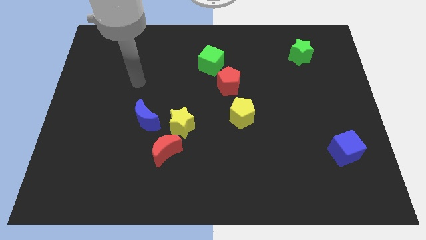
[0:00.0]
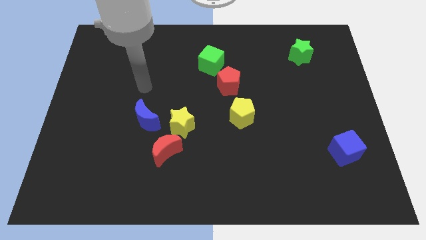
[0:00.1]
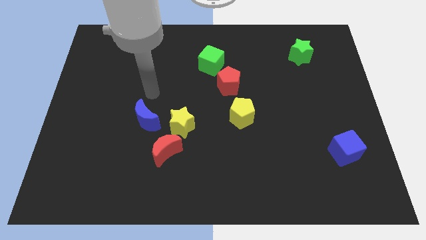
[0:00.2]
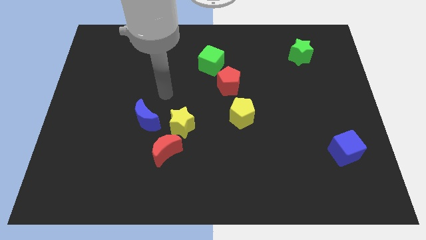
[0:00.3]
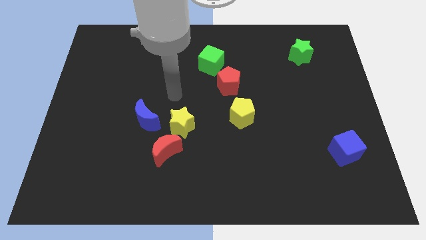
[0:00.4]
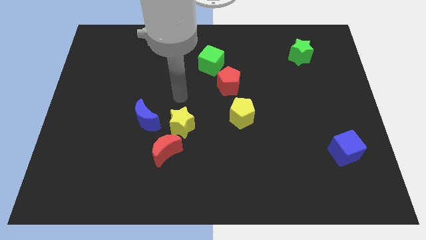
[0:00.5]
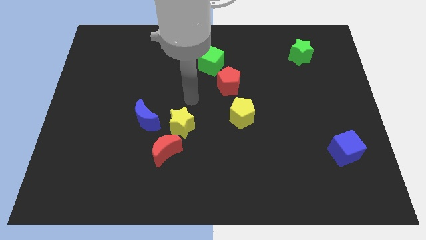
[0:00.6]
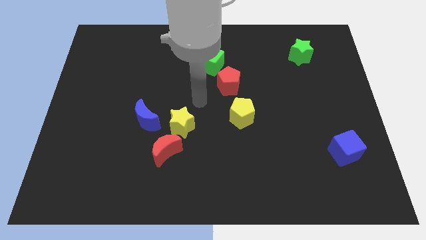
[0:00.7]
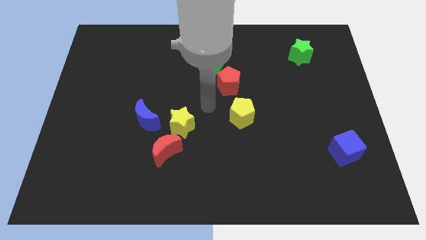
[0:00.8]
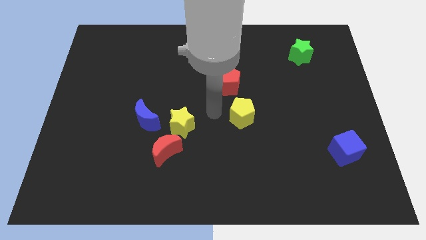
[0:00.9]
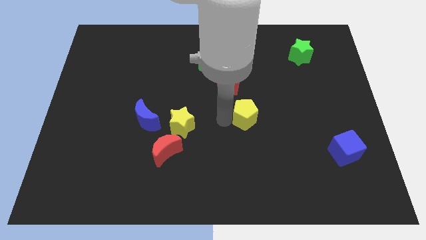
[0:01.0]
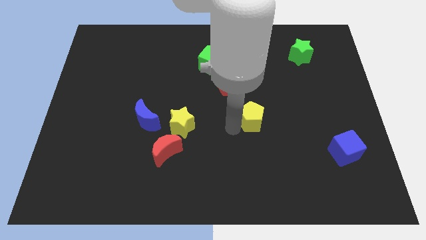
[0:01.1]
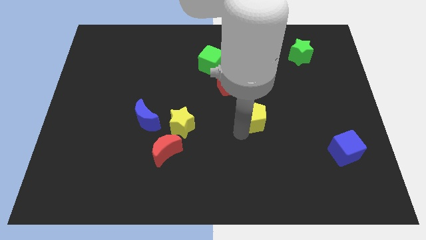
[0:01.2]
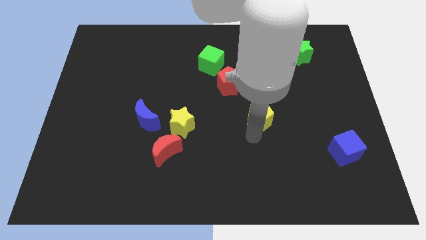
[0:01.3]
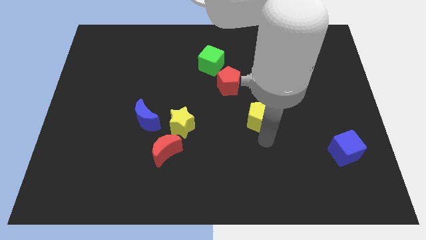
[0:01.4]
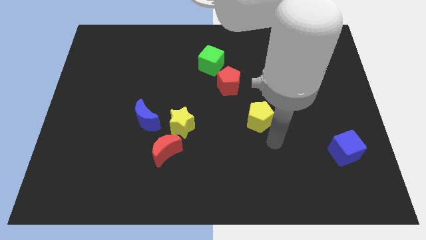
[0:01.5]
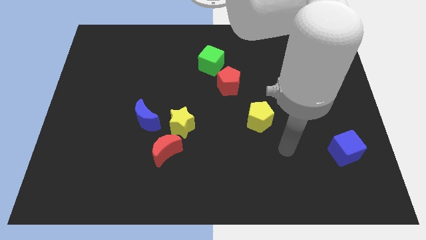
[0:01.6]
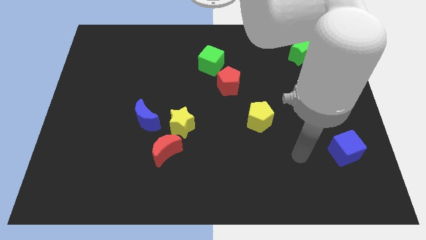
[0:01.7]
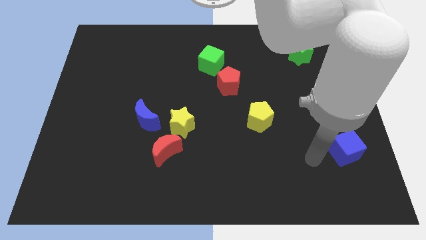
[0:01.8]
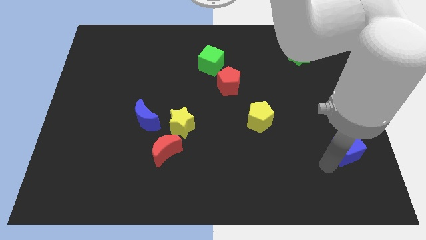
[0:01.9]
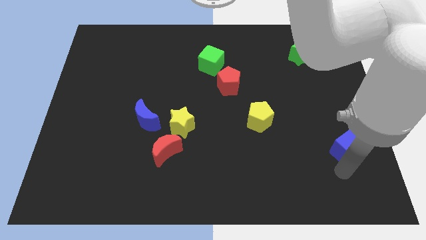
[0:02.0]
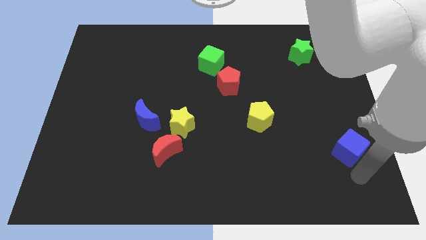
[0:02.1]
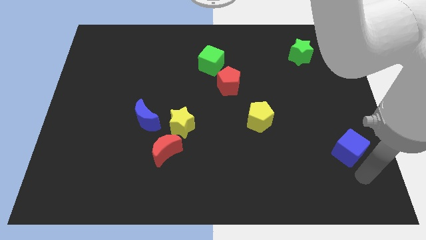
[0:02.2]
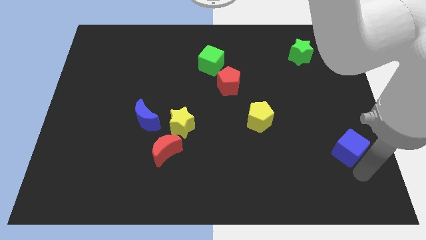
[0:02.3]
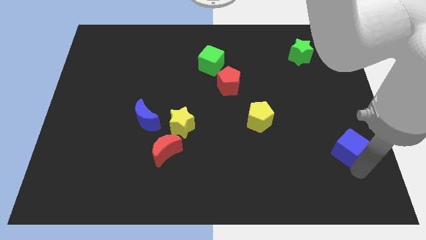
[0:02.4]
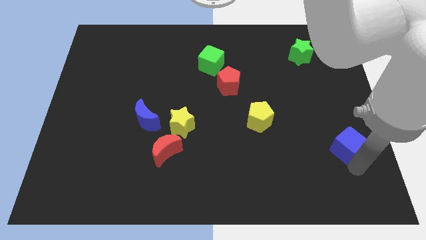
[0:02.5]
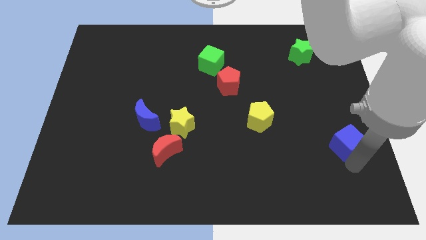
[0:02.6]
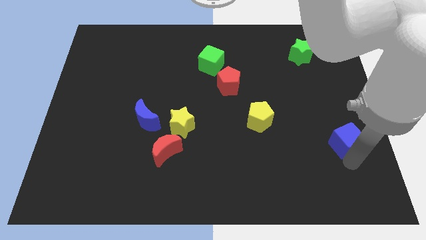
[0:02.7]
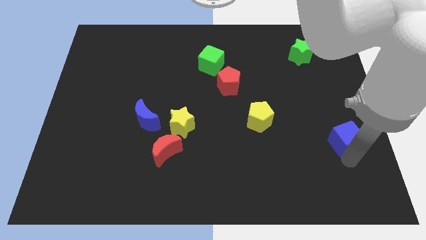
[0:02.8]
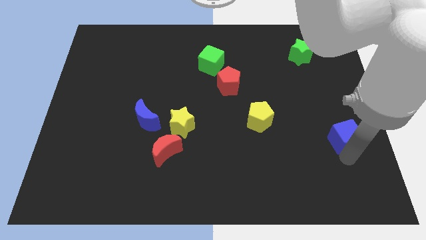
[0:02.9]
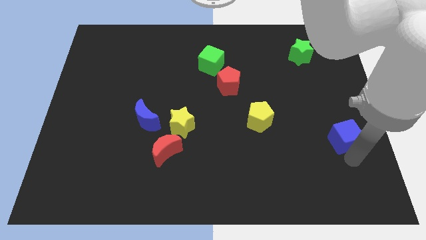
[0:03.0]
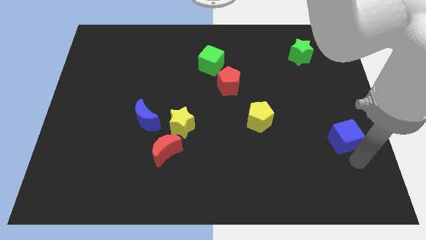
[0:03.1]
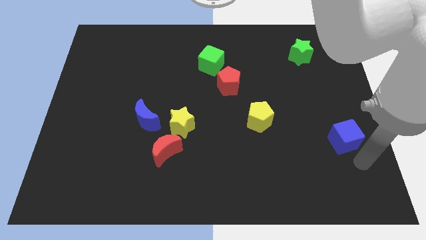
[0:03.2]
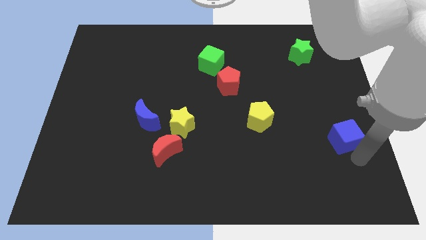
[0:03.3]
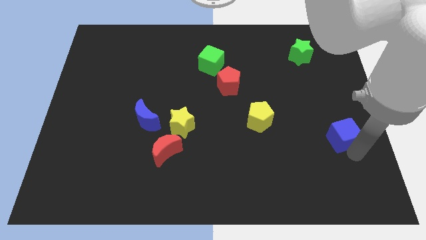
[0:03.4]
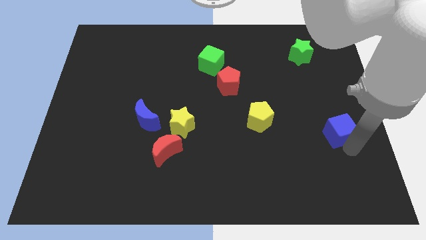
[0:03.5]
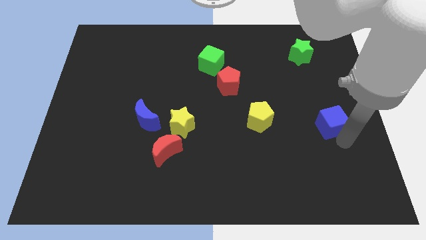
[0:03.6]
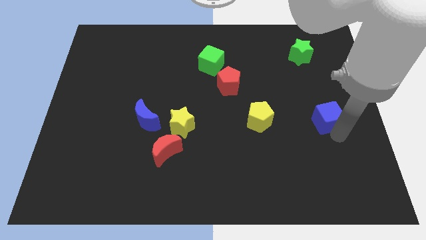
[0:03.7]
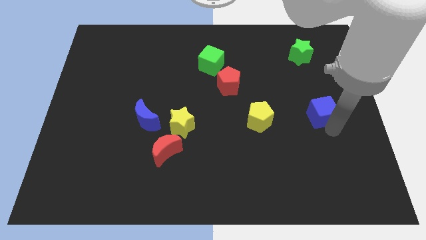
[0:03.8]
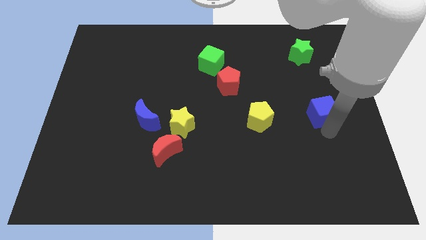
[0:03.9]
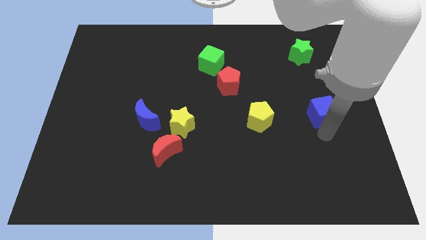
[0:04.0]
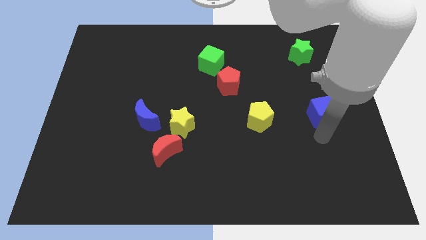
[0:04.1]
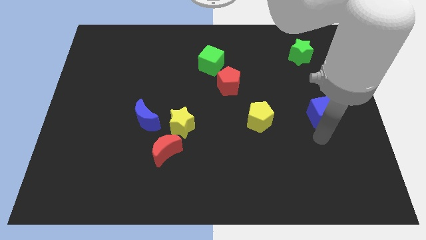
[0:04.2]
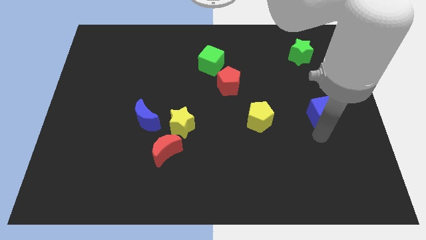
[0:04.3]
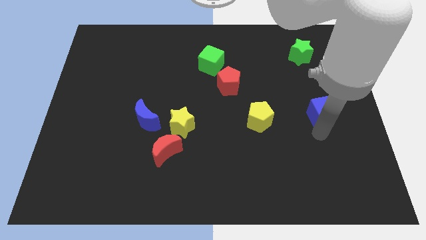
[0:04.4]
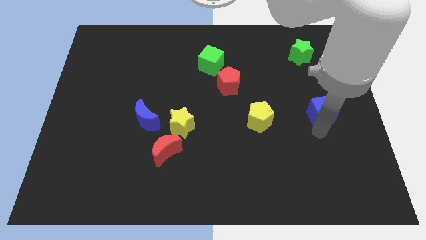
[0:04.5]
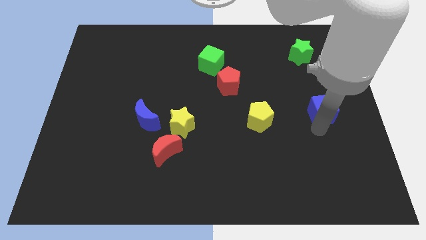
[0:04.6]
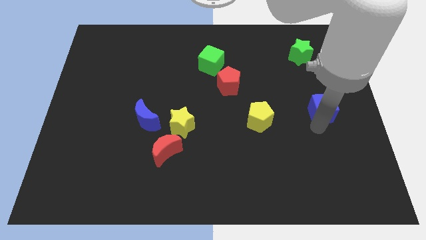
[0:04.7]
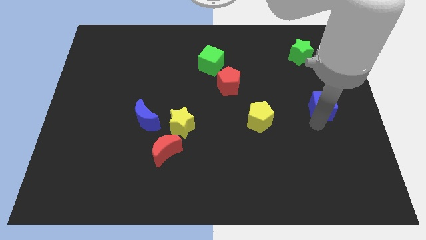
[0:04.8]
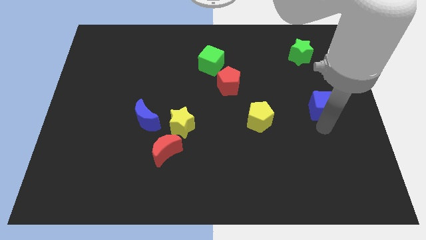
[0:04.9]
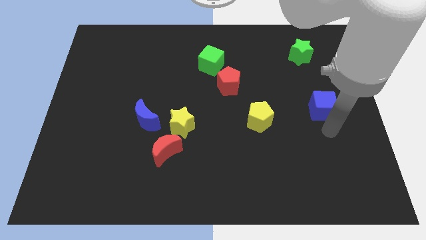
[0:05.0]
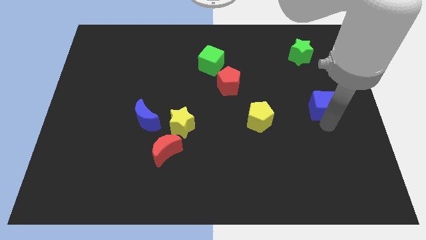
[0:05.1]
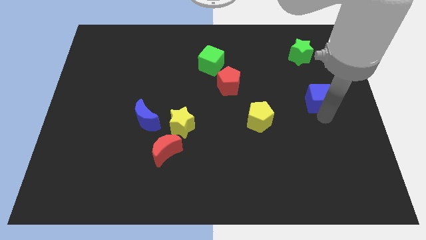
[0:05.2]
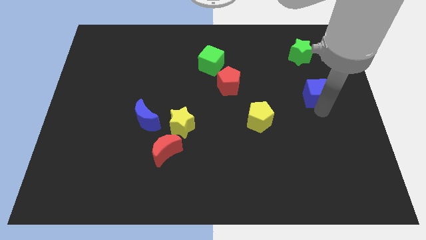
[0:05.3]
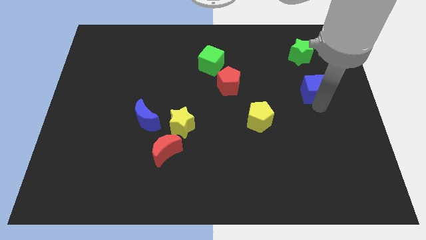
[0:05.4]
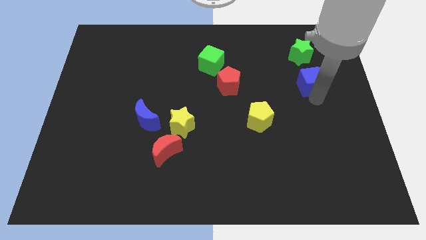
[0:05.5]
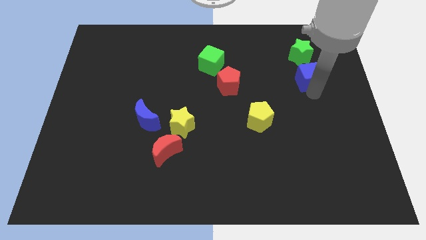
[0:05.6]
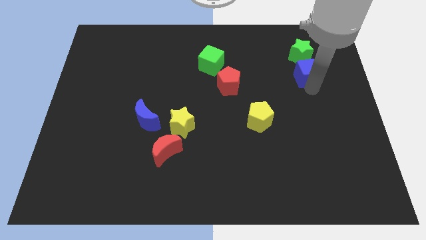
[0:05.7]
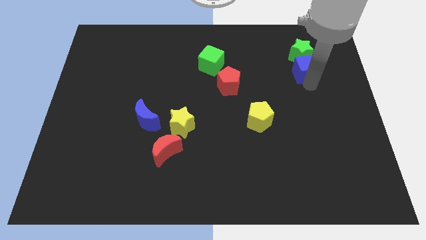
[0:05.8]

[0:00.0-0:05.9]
move the blue cube to the green star

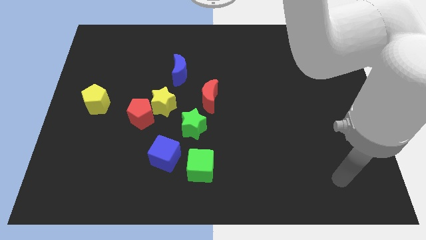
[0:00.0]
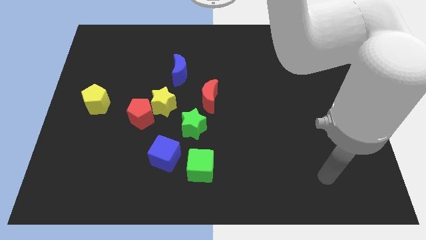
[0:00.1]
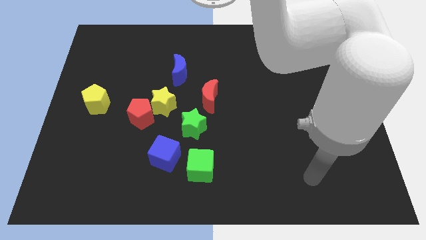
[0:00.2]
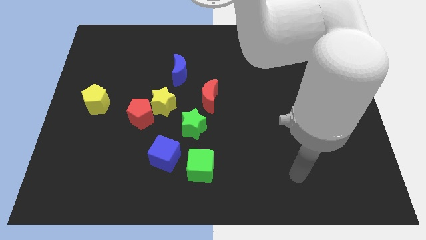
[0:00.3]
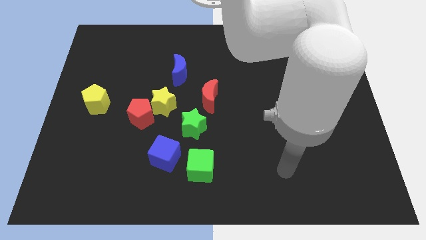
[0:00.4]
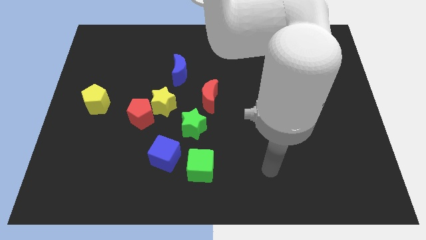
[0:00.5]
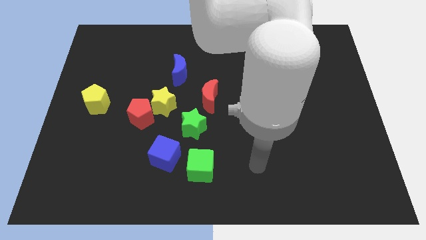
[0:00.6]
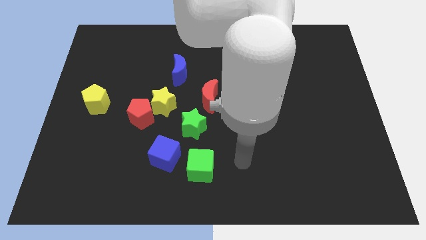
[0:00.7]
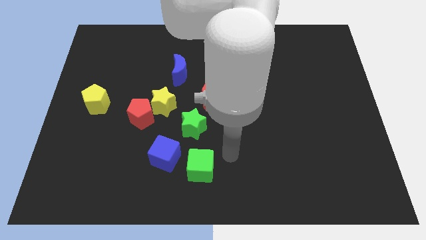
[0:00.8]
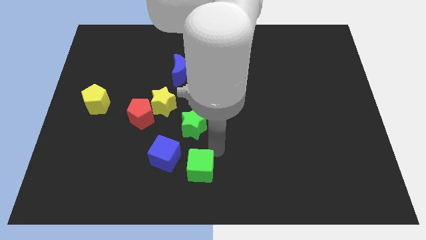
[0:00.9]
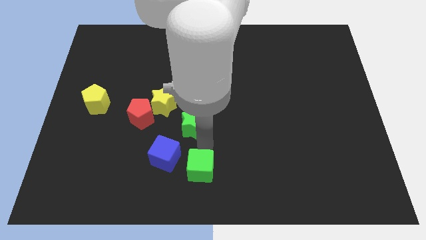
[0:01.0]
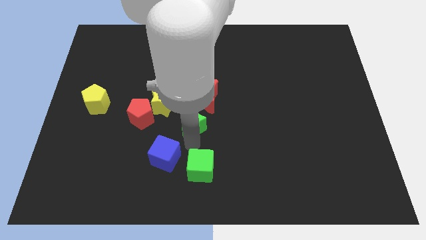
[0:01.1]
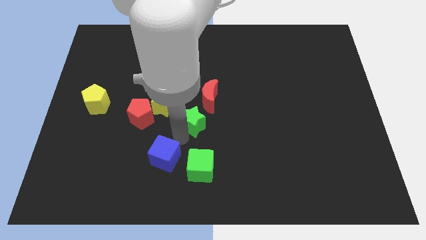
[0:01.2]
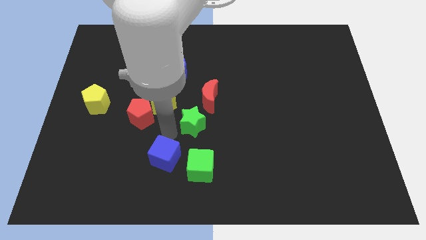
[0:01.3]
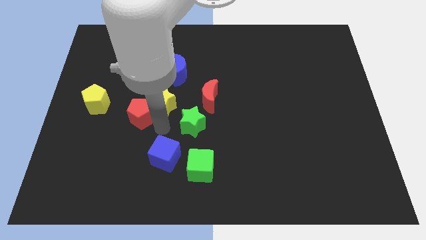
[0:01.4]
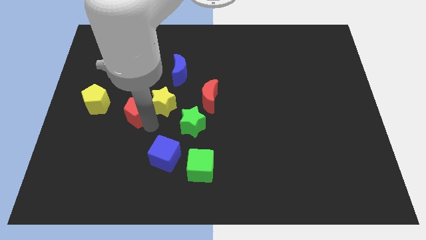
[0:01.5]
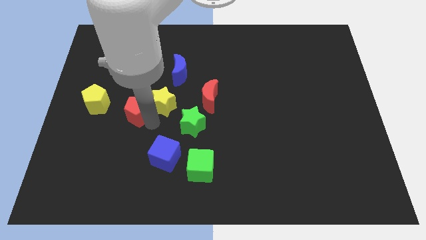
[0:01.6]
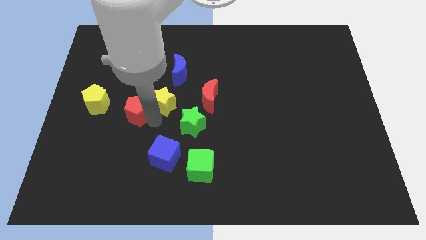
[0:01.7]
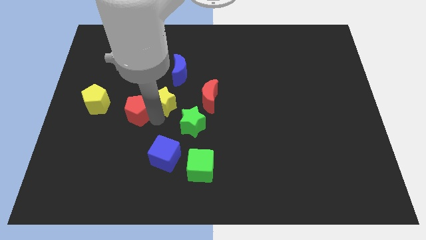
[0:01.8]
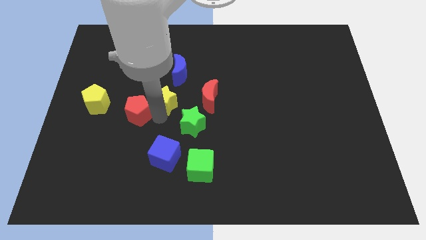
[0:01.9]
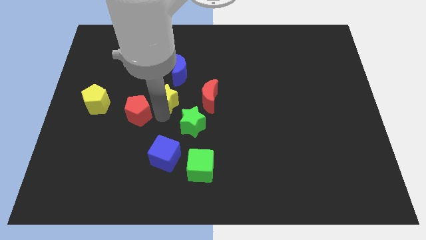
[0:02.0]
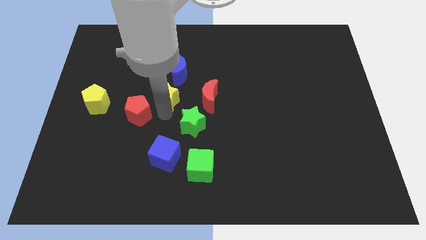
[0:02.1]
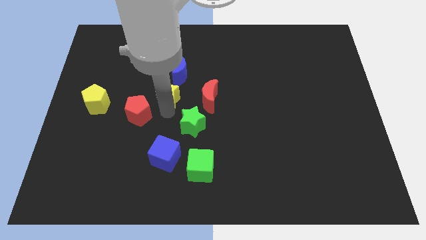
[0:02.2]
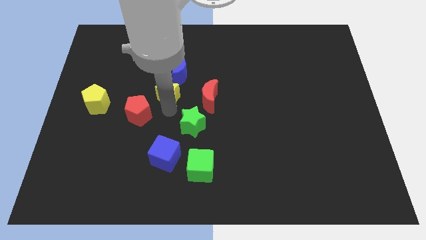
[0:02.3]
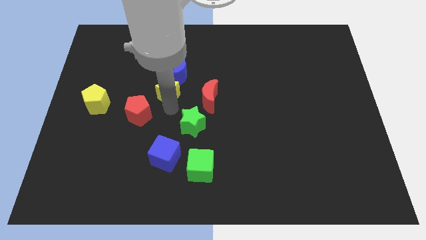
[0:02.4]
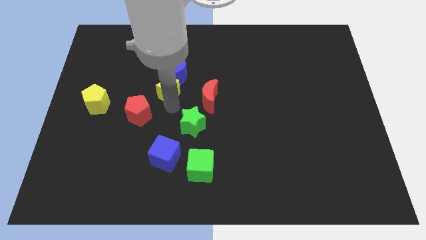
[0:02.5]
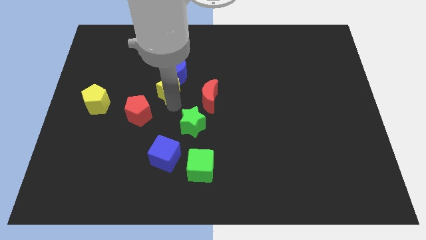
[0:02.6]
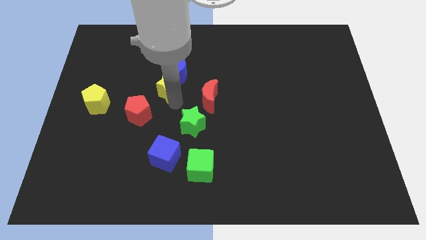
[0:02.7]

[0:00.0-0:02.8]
move the yellow star to the blue moon
